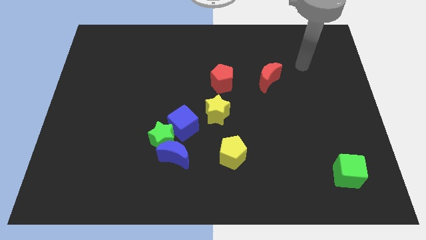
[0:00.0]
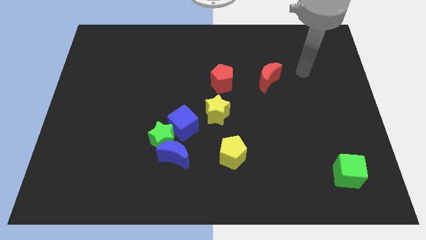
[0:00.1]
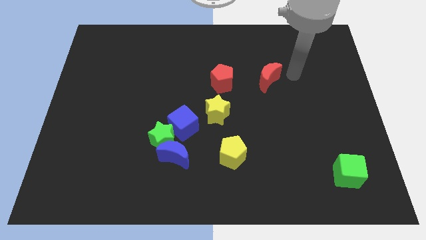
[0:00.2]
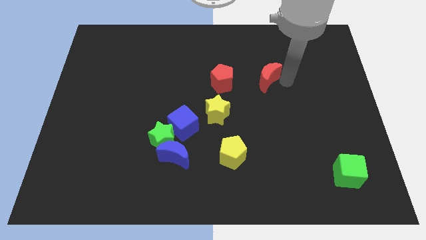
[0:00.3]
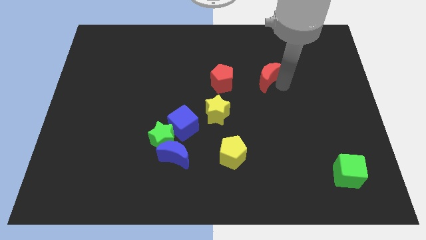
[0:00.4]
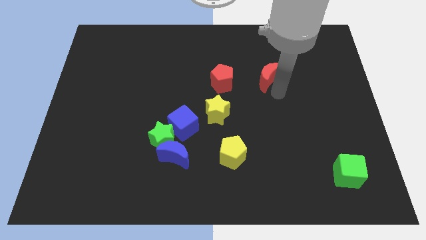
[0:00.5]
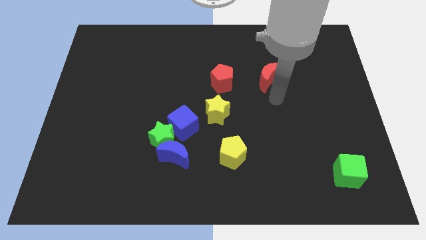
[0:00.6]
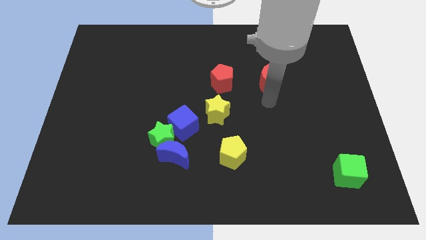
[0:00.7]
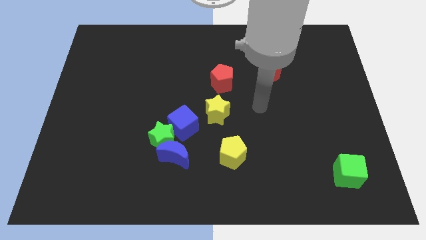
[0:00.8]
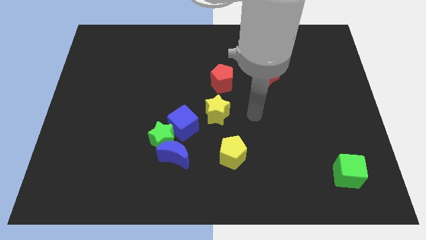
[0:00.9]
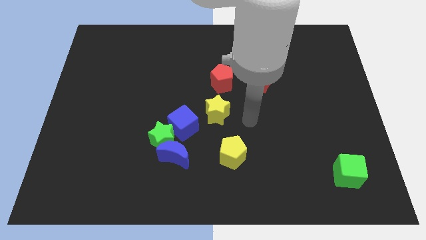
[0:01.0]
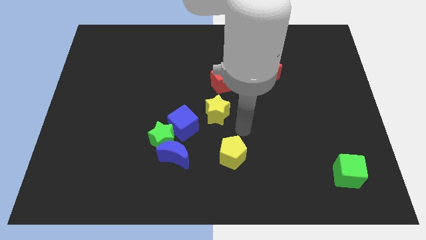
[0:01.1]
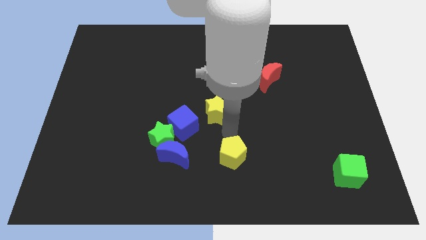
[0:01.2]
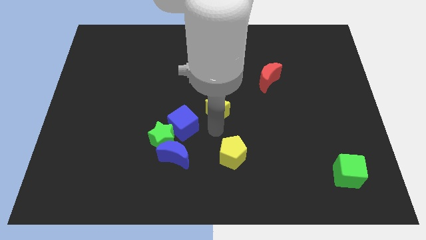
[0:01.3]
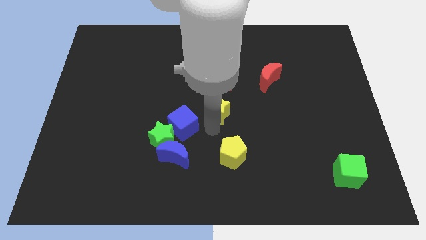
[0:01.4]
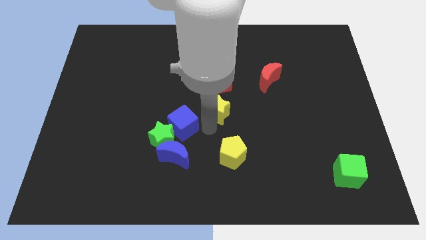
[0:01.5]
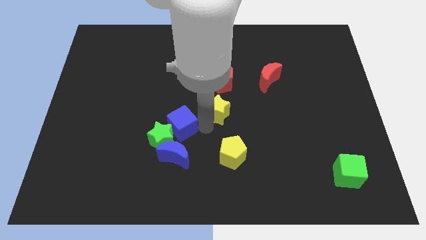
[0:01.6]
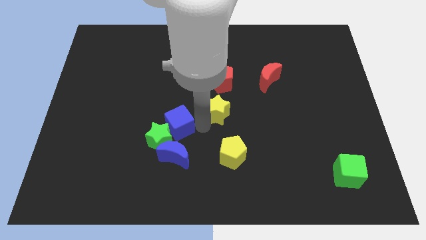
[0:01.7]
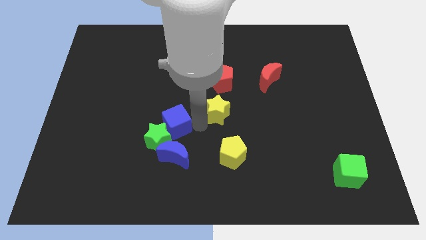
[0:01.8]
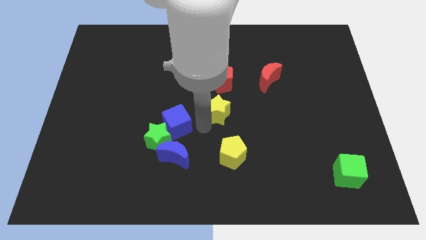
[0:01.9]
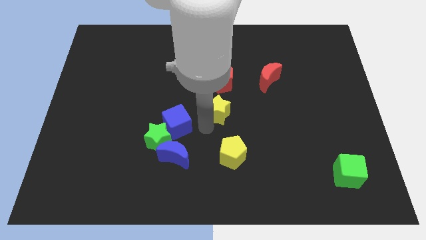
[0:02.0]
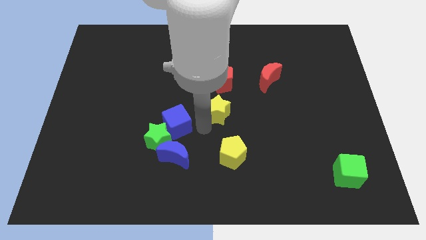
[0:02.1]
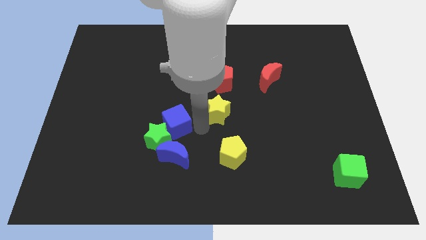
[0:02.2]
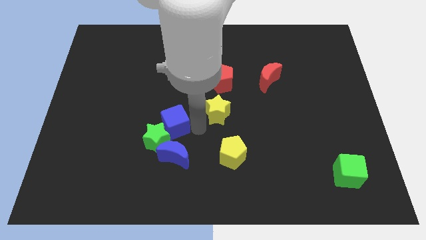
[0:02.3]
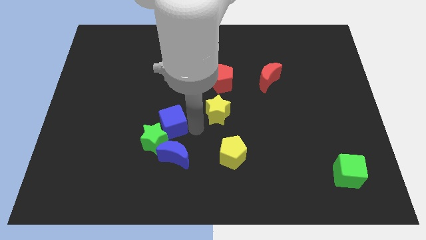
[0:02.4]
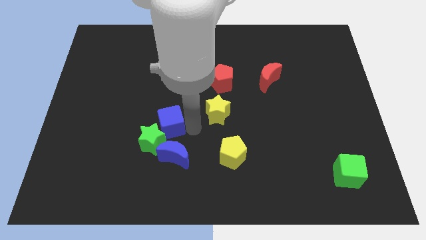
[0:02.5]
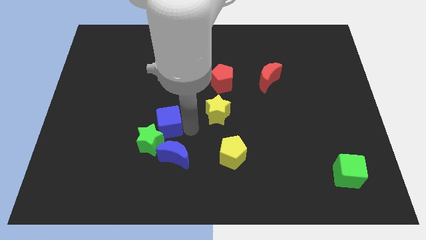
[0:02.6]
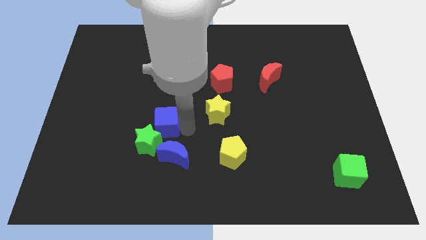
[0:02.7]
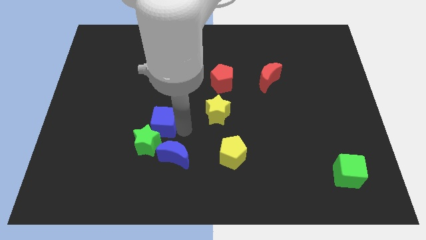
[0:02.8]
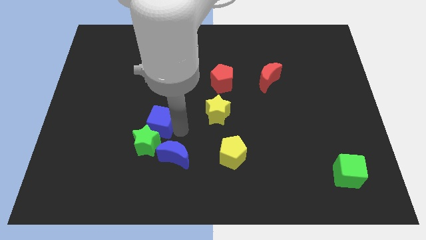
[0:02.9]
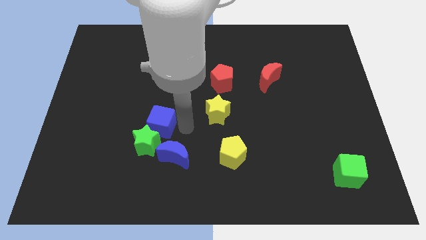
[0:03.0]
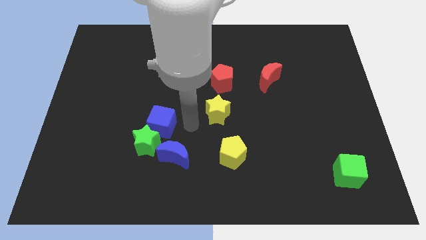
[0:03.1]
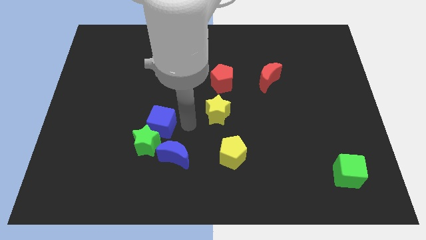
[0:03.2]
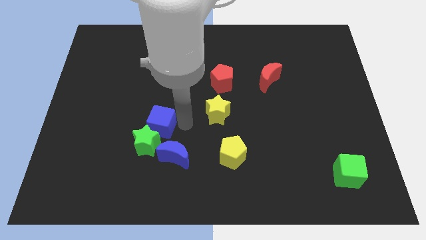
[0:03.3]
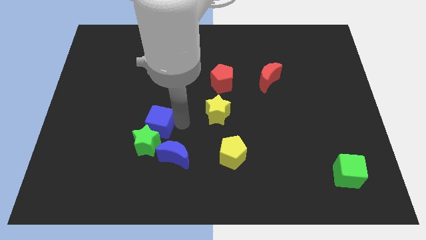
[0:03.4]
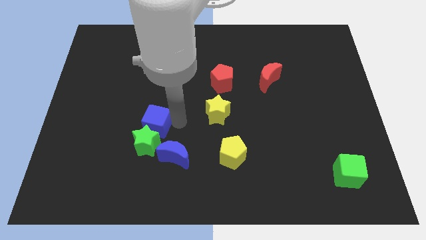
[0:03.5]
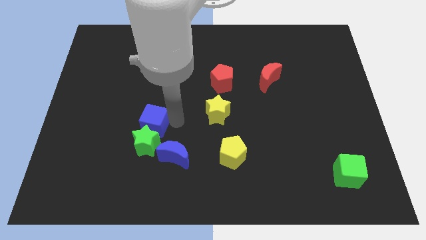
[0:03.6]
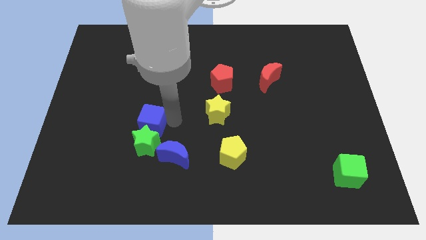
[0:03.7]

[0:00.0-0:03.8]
slide the blue cube to the left a little bit

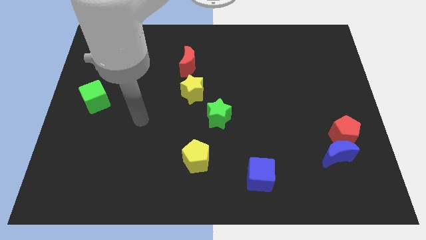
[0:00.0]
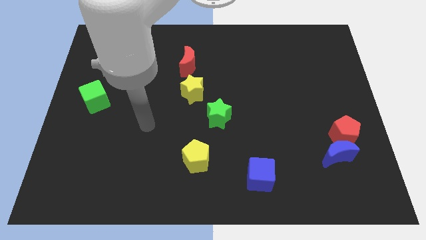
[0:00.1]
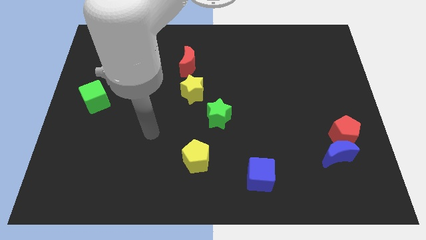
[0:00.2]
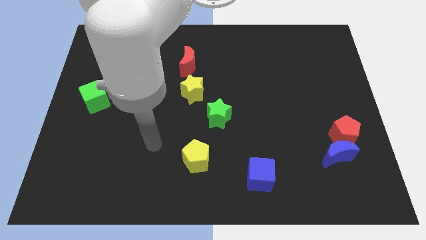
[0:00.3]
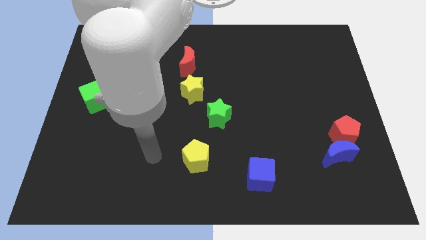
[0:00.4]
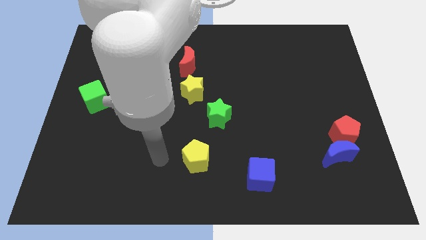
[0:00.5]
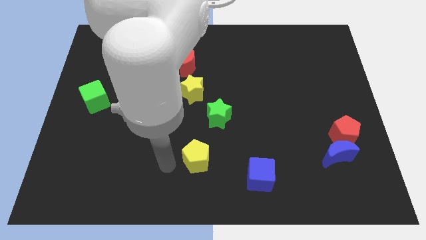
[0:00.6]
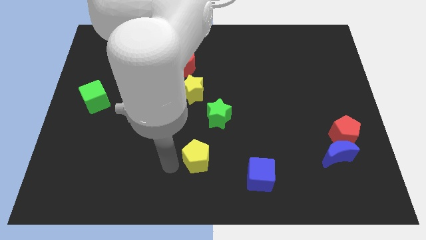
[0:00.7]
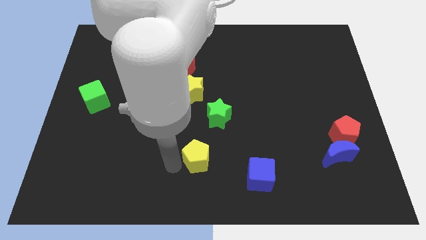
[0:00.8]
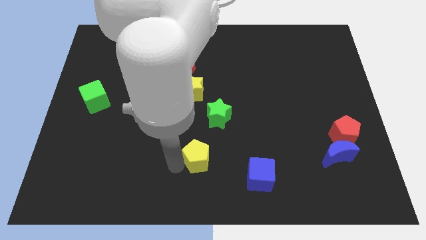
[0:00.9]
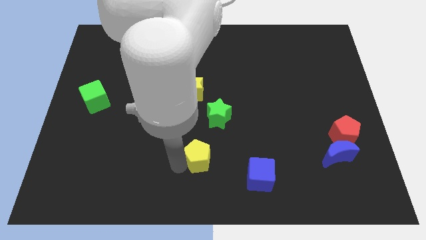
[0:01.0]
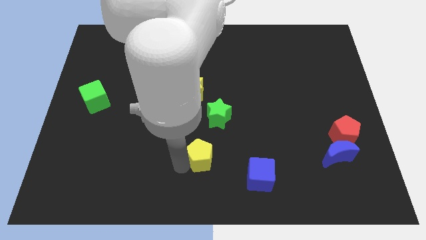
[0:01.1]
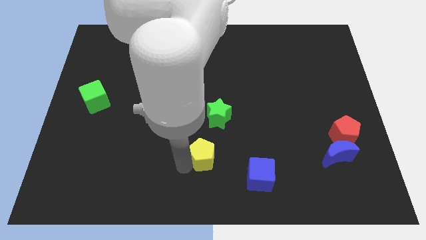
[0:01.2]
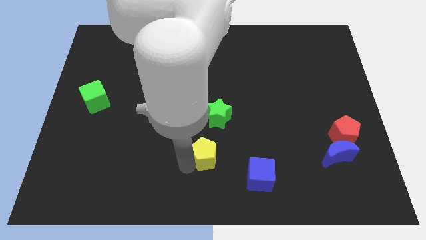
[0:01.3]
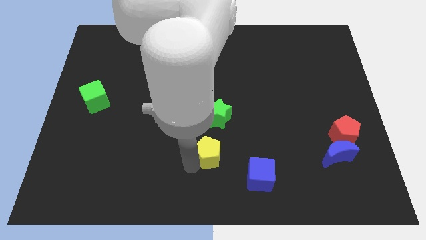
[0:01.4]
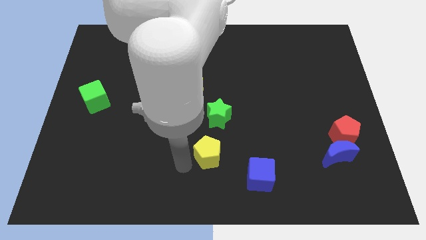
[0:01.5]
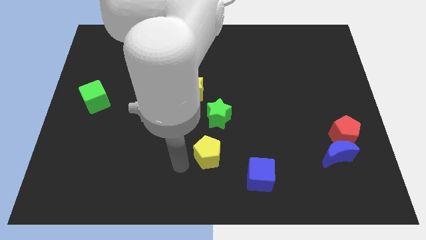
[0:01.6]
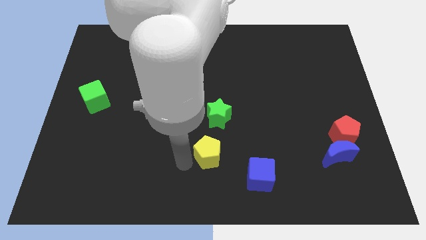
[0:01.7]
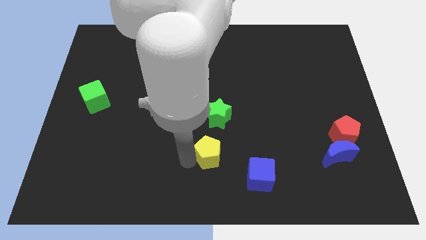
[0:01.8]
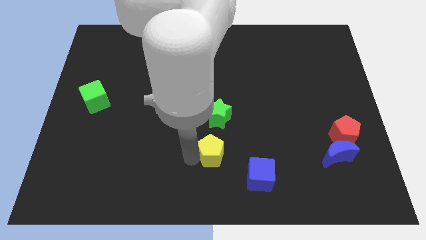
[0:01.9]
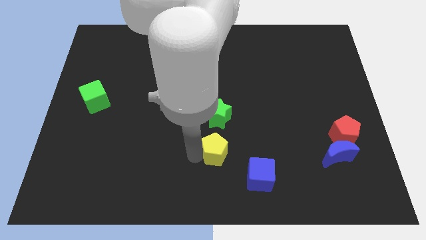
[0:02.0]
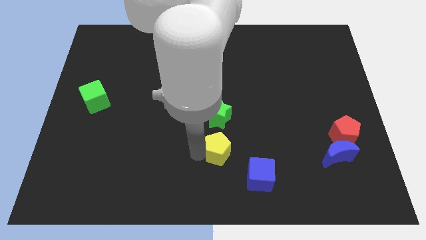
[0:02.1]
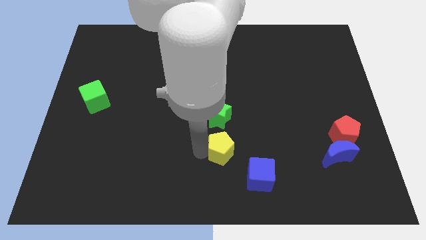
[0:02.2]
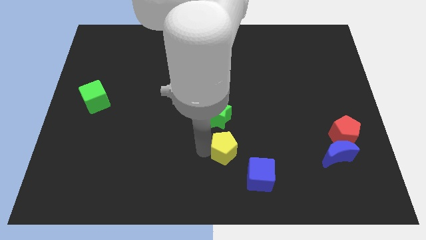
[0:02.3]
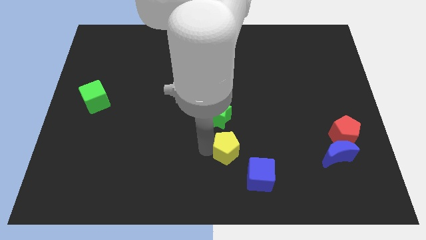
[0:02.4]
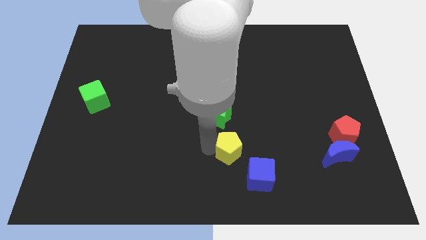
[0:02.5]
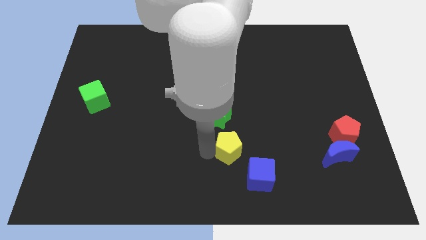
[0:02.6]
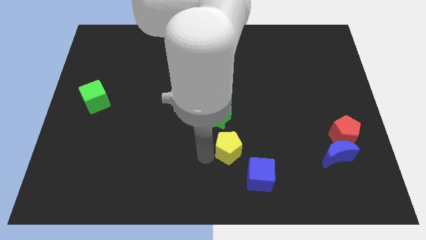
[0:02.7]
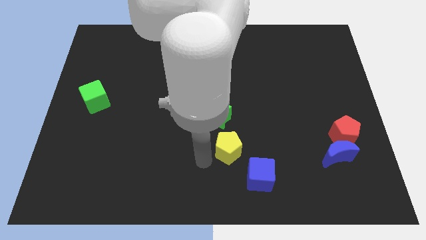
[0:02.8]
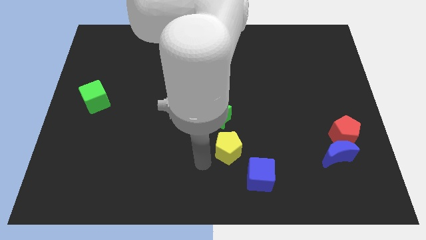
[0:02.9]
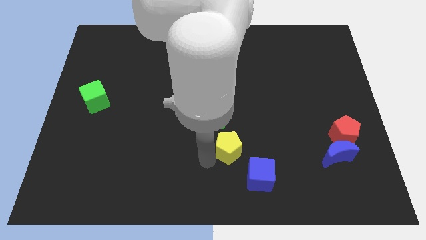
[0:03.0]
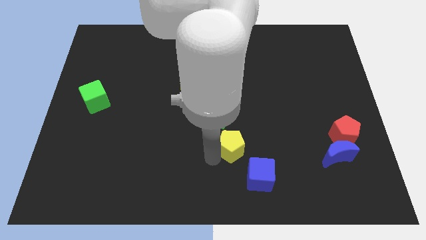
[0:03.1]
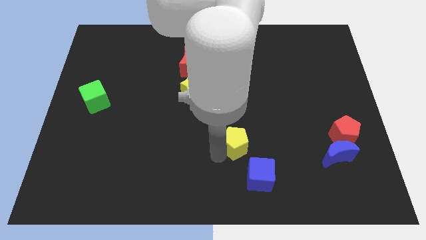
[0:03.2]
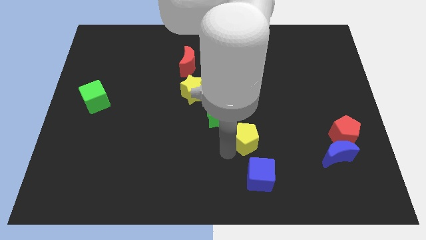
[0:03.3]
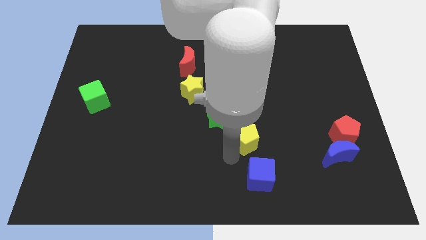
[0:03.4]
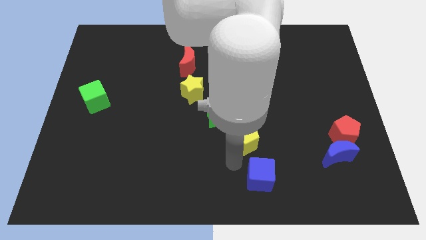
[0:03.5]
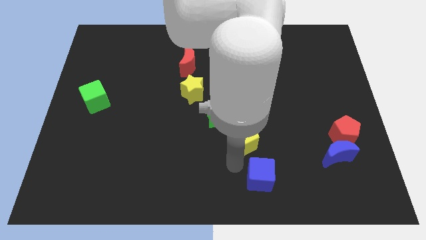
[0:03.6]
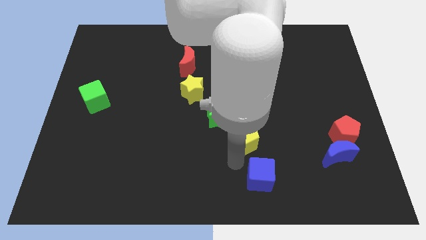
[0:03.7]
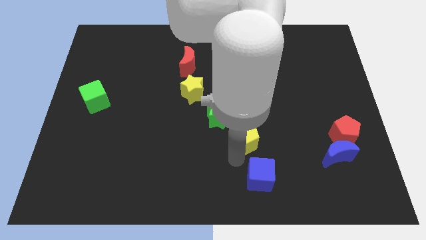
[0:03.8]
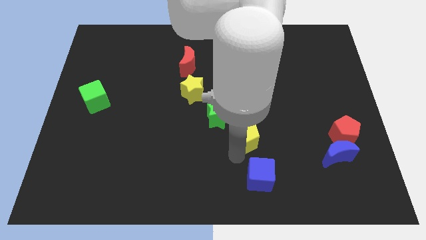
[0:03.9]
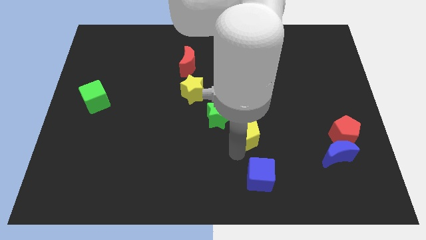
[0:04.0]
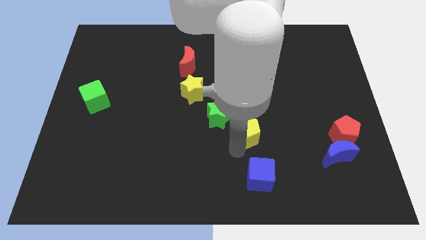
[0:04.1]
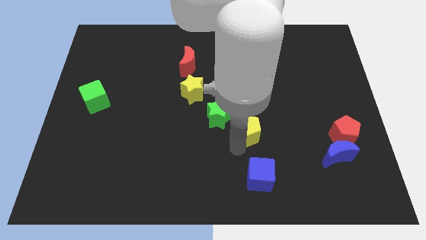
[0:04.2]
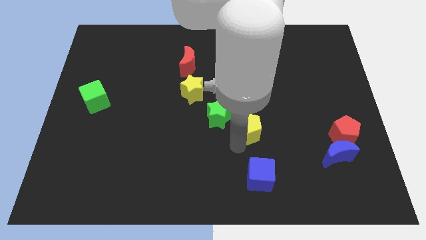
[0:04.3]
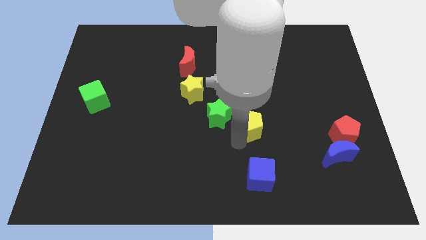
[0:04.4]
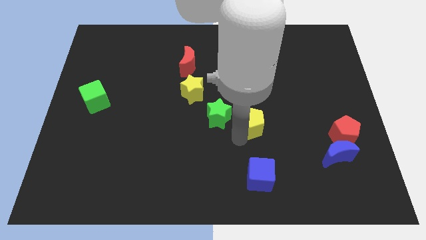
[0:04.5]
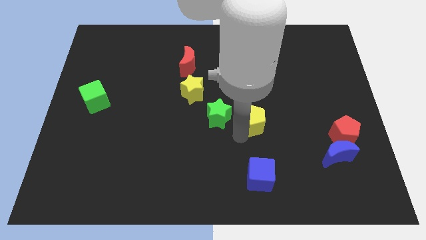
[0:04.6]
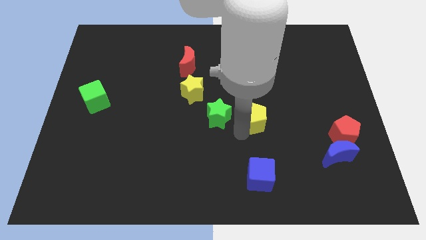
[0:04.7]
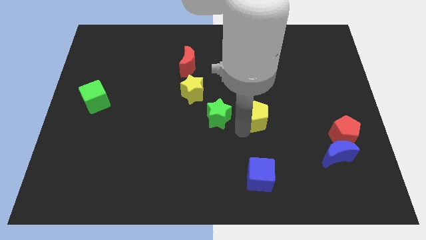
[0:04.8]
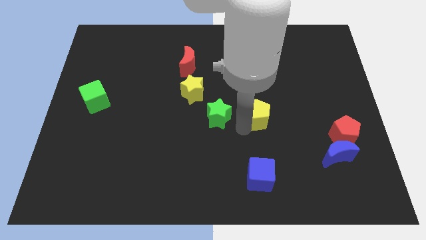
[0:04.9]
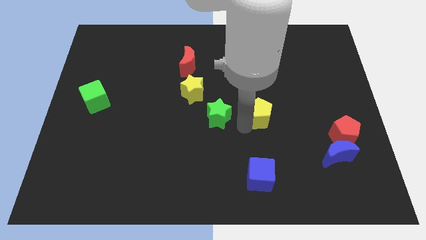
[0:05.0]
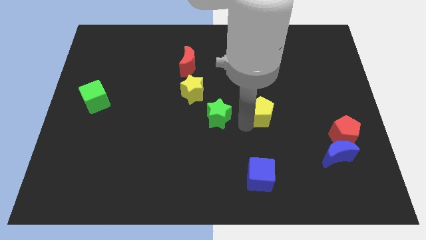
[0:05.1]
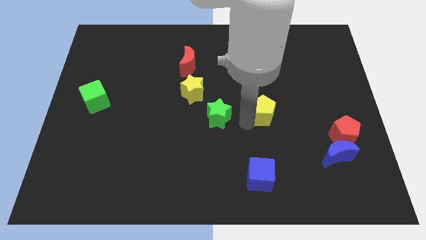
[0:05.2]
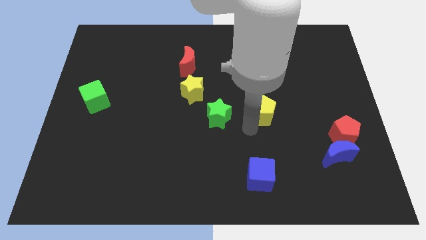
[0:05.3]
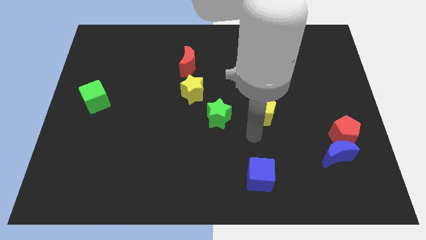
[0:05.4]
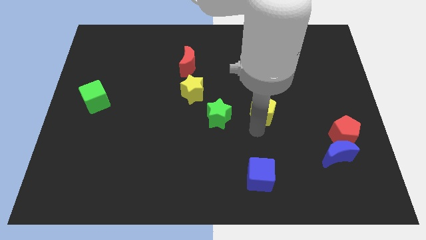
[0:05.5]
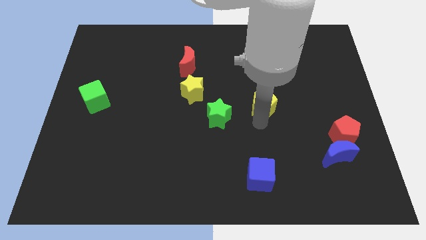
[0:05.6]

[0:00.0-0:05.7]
push the yellow pentagon up and then right
